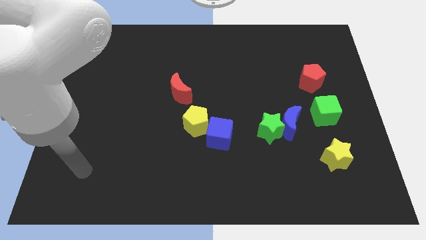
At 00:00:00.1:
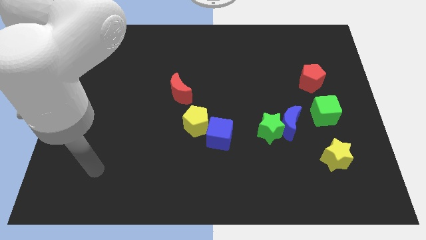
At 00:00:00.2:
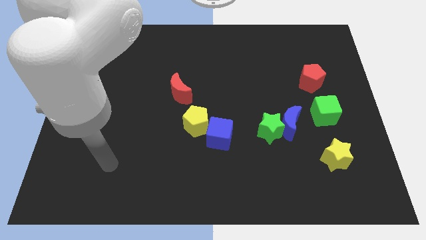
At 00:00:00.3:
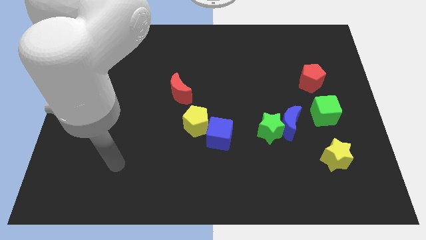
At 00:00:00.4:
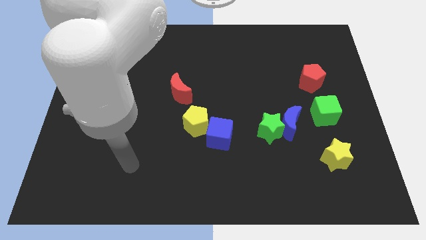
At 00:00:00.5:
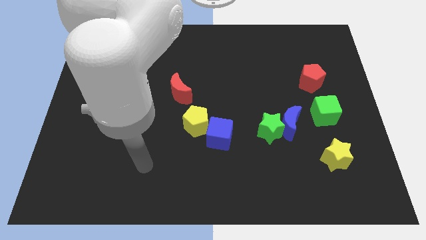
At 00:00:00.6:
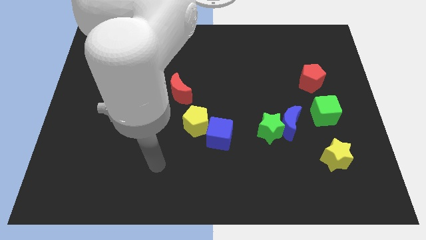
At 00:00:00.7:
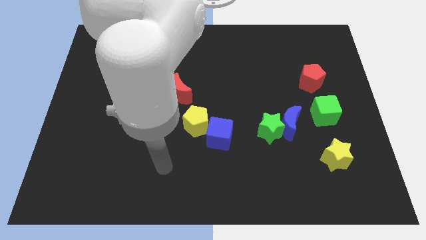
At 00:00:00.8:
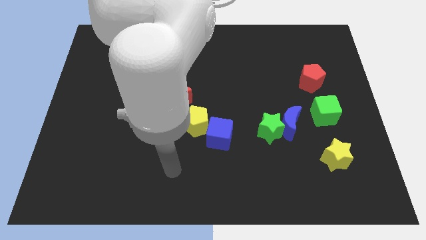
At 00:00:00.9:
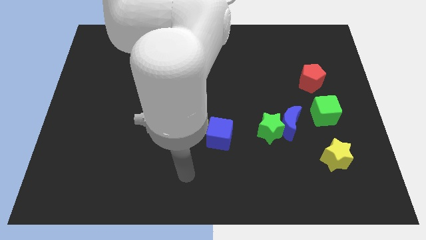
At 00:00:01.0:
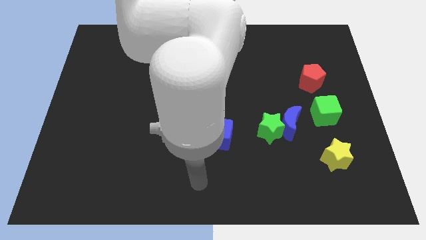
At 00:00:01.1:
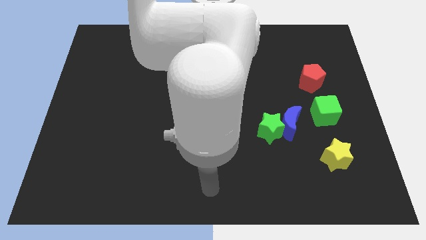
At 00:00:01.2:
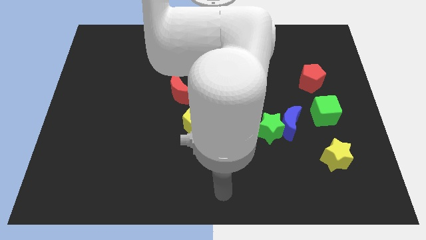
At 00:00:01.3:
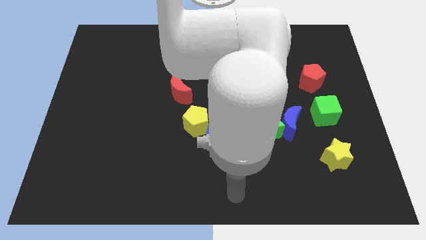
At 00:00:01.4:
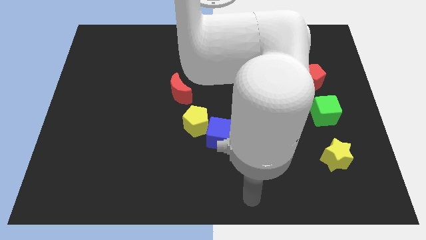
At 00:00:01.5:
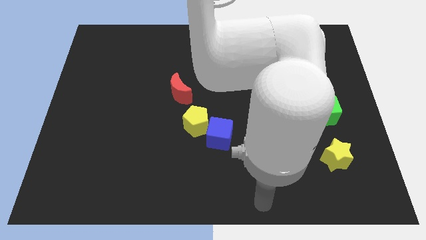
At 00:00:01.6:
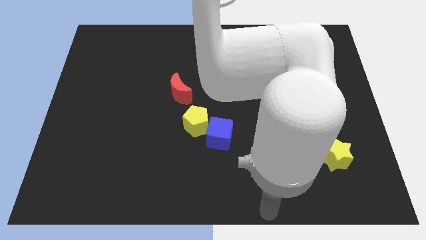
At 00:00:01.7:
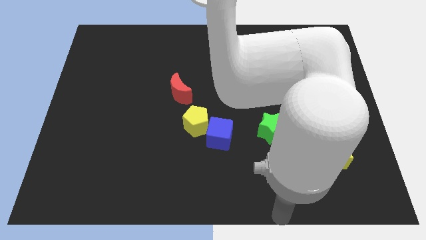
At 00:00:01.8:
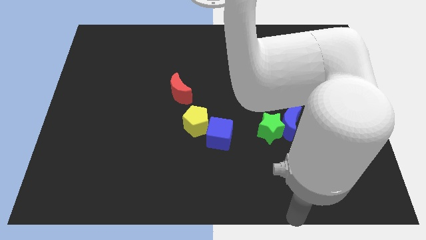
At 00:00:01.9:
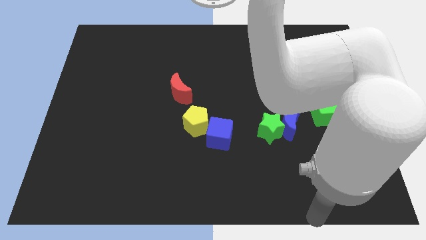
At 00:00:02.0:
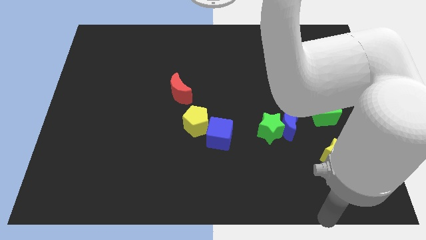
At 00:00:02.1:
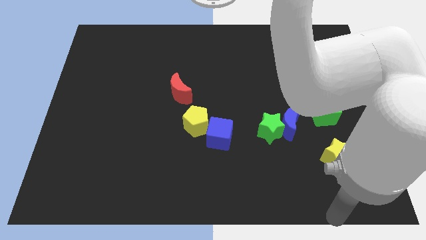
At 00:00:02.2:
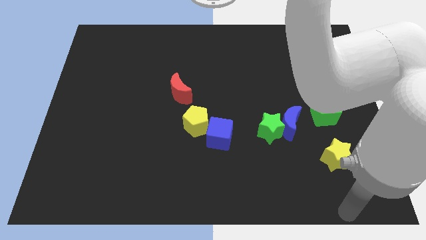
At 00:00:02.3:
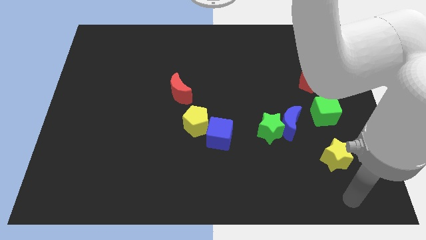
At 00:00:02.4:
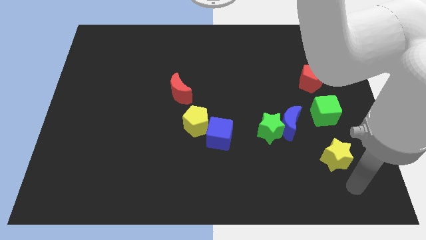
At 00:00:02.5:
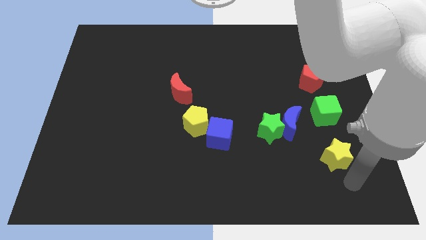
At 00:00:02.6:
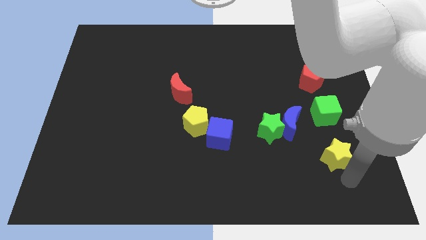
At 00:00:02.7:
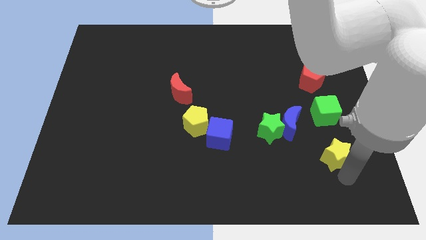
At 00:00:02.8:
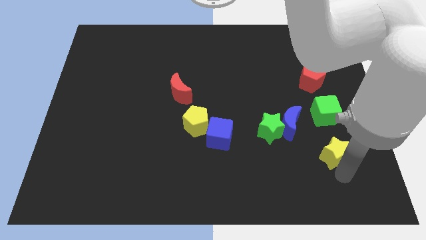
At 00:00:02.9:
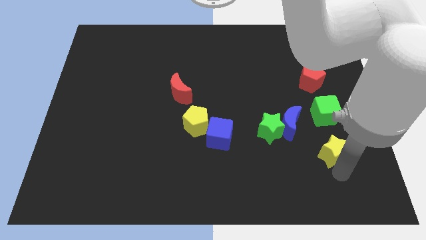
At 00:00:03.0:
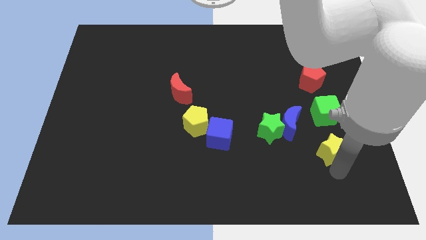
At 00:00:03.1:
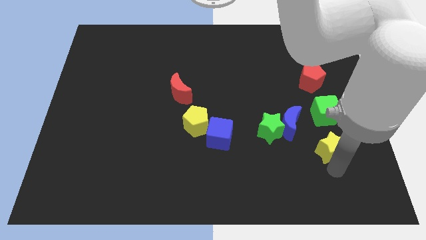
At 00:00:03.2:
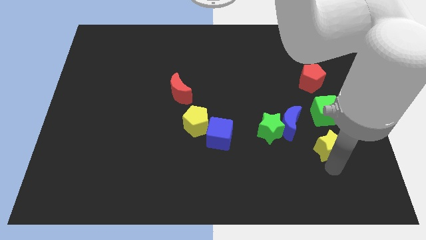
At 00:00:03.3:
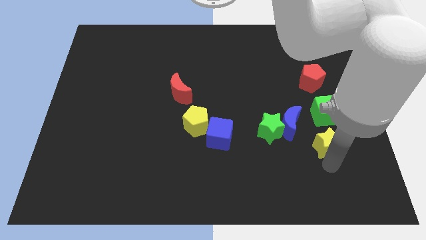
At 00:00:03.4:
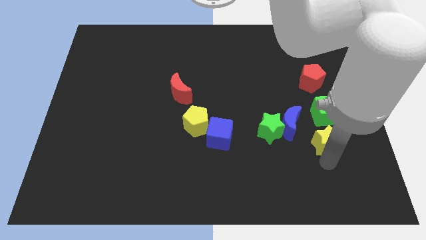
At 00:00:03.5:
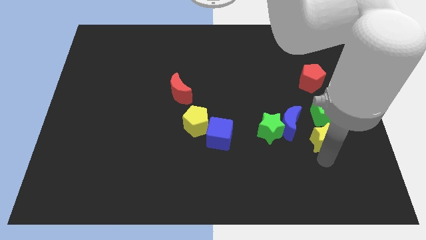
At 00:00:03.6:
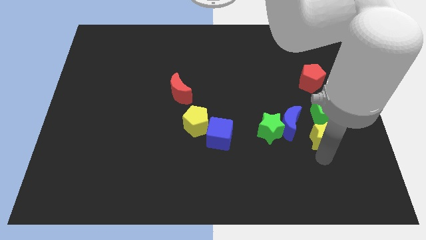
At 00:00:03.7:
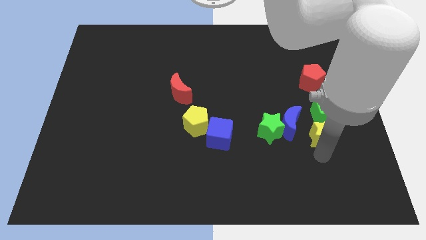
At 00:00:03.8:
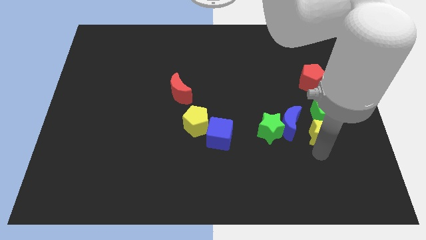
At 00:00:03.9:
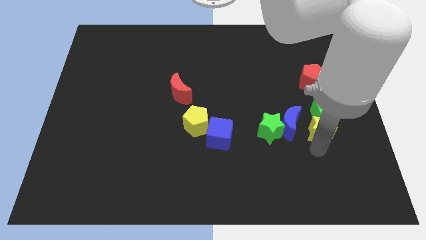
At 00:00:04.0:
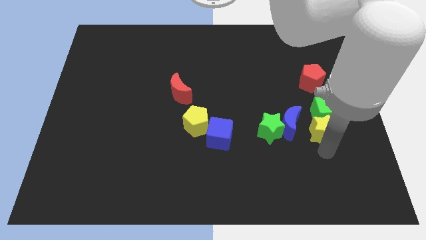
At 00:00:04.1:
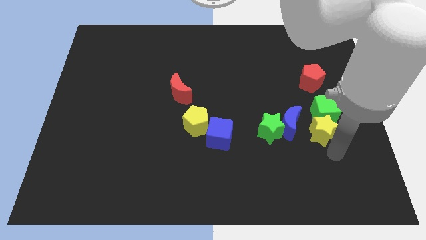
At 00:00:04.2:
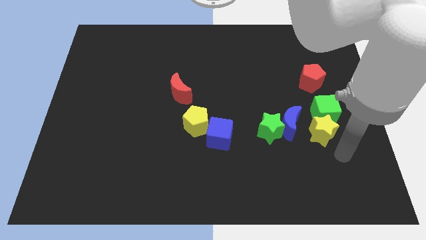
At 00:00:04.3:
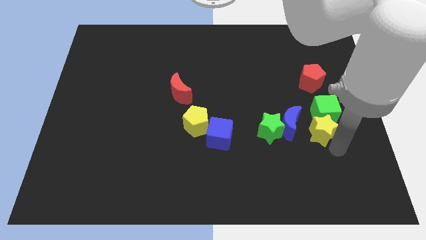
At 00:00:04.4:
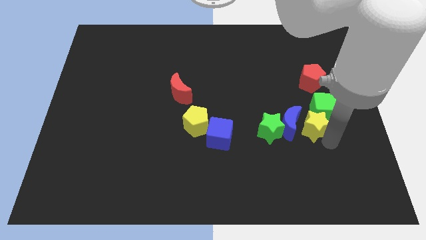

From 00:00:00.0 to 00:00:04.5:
move the yellow star a little bit diagonally upwards and left

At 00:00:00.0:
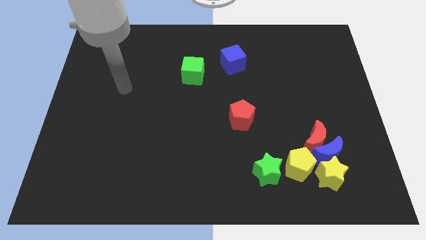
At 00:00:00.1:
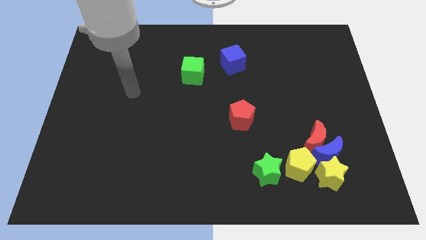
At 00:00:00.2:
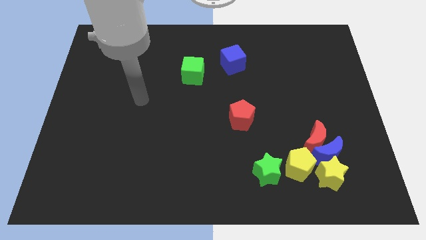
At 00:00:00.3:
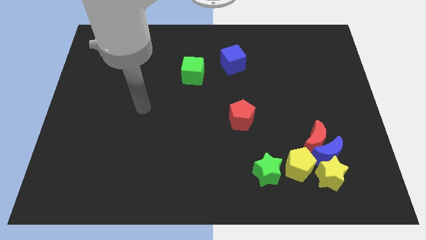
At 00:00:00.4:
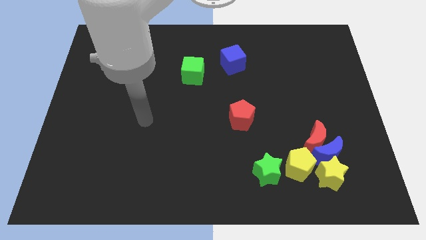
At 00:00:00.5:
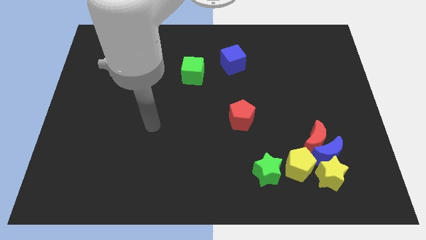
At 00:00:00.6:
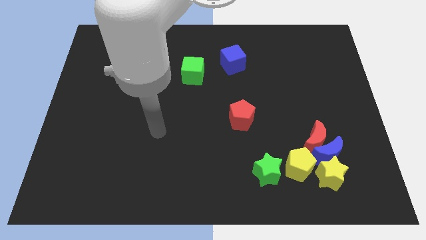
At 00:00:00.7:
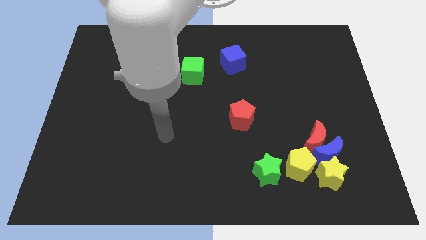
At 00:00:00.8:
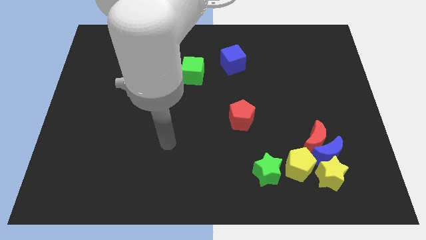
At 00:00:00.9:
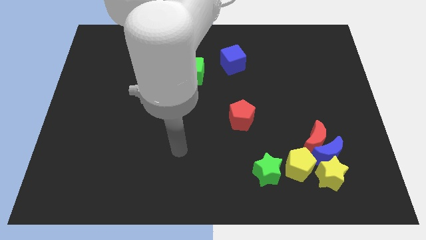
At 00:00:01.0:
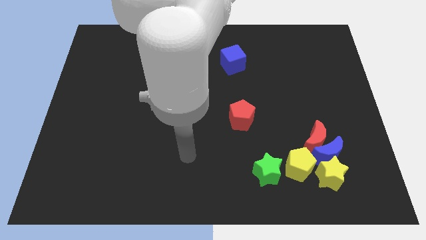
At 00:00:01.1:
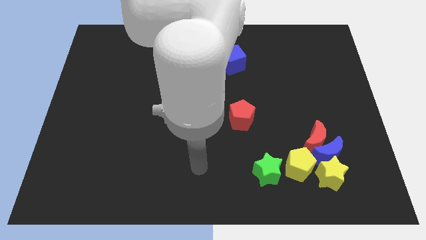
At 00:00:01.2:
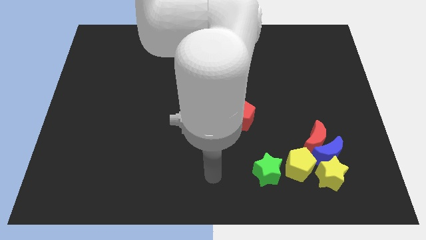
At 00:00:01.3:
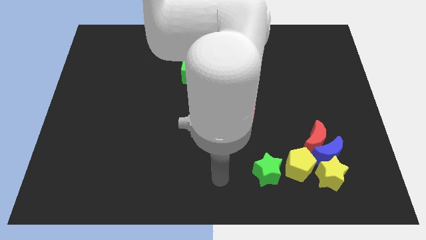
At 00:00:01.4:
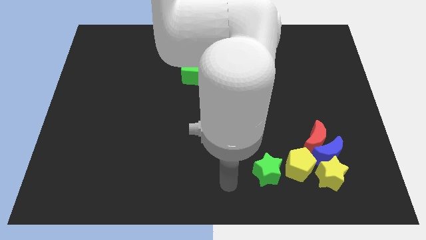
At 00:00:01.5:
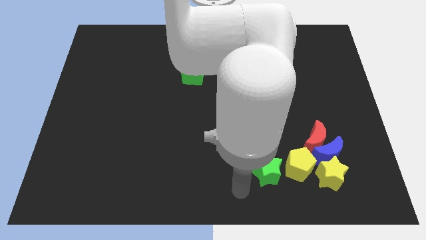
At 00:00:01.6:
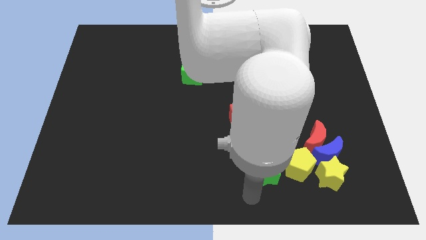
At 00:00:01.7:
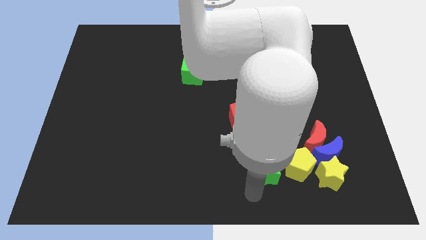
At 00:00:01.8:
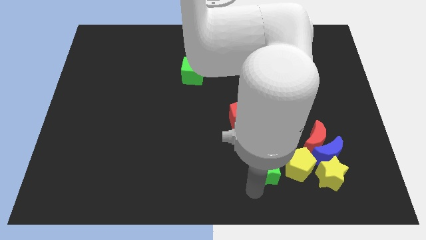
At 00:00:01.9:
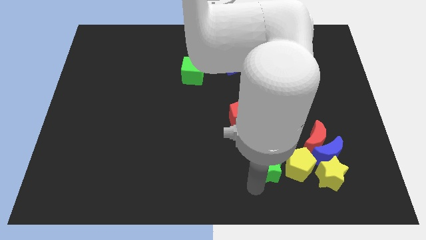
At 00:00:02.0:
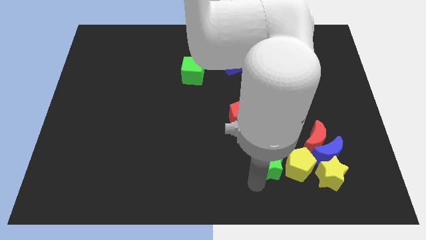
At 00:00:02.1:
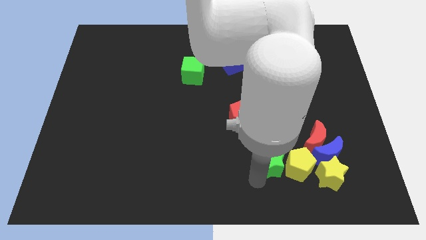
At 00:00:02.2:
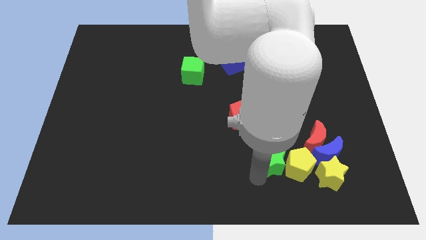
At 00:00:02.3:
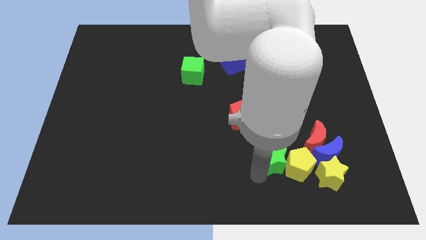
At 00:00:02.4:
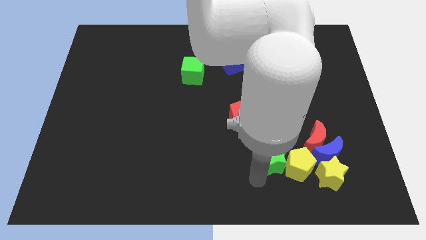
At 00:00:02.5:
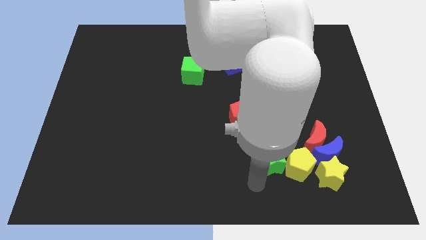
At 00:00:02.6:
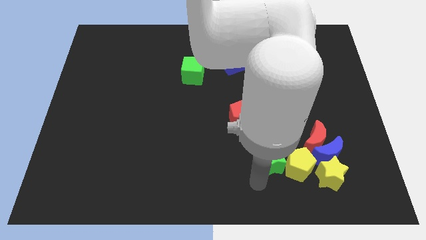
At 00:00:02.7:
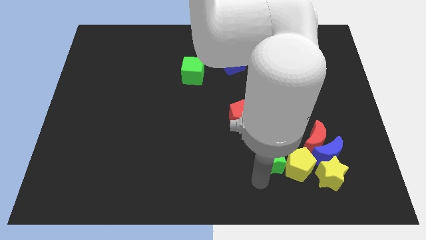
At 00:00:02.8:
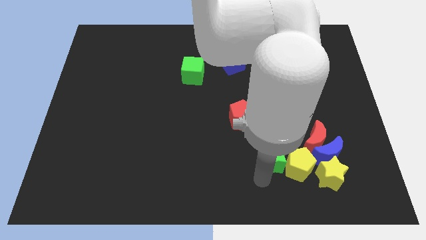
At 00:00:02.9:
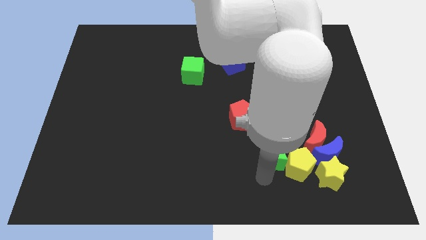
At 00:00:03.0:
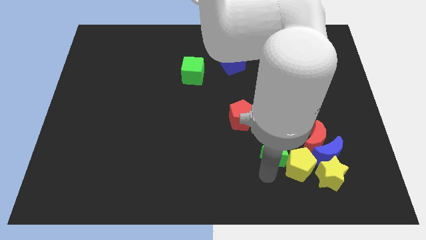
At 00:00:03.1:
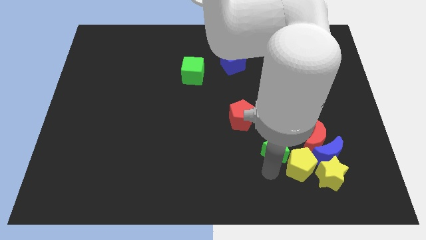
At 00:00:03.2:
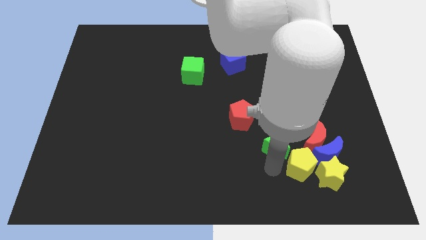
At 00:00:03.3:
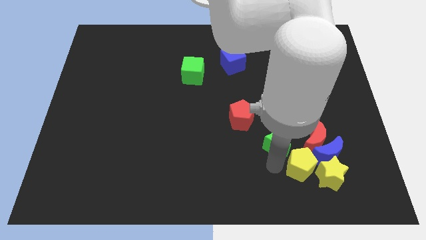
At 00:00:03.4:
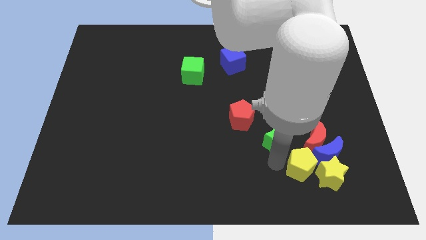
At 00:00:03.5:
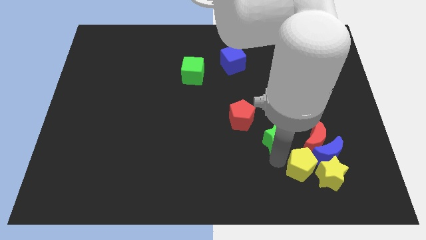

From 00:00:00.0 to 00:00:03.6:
slightly move the green star upwards and then to the right
